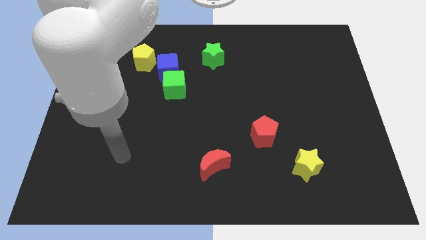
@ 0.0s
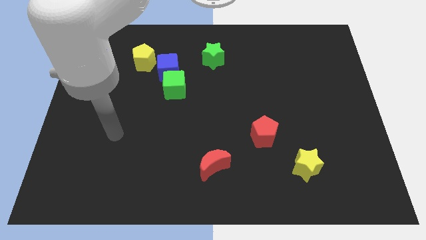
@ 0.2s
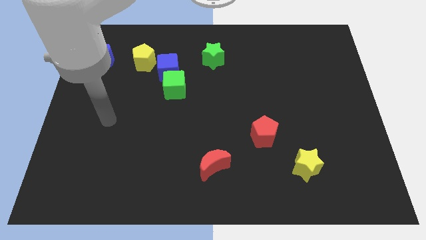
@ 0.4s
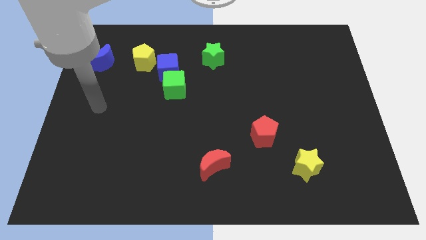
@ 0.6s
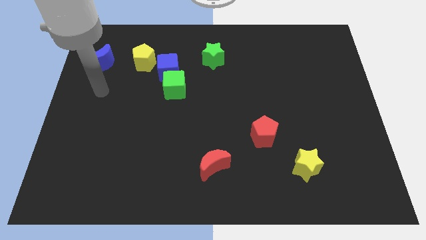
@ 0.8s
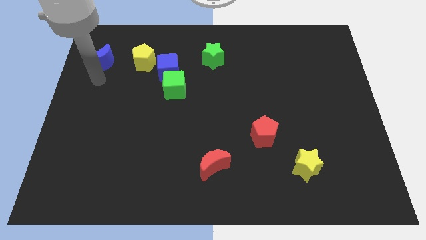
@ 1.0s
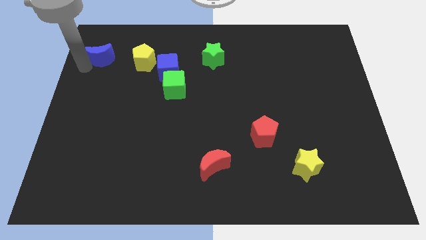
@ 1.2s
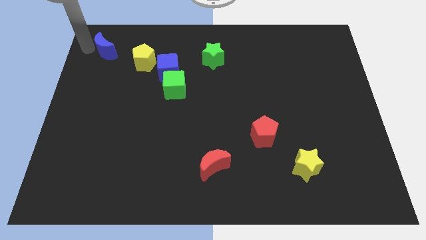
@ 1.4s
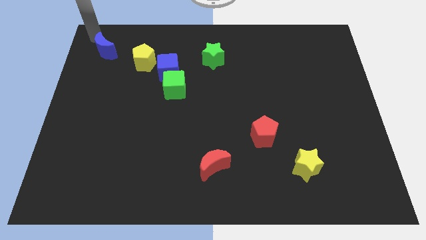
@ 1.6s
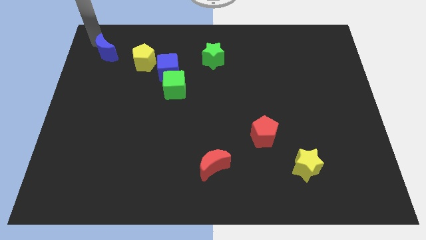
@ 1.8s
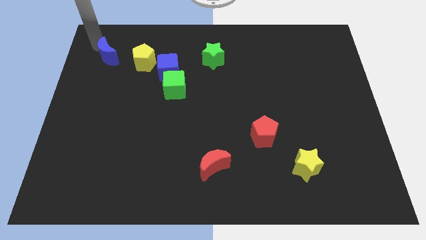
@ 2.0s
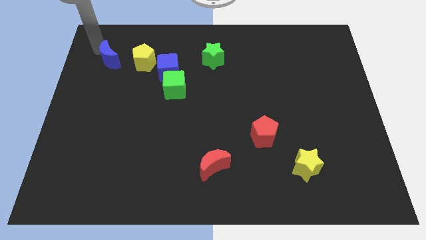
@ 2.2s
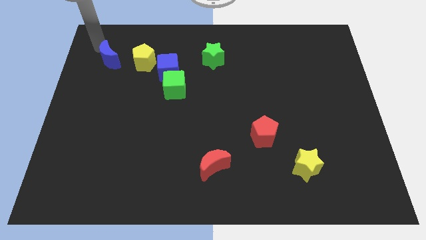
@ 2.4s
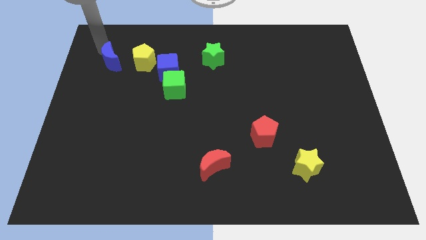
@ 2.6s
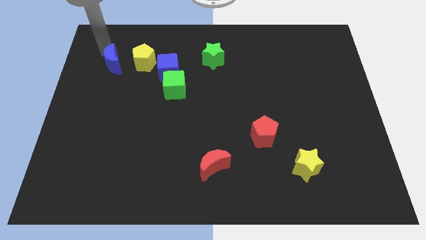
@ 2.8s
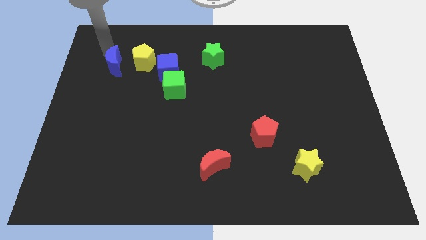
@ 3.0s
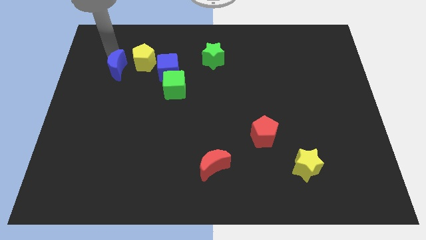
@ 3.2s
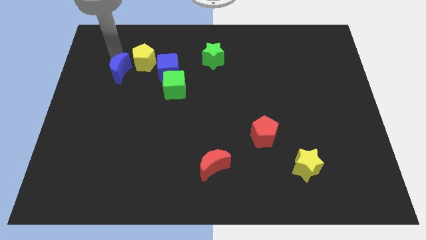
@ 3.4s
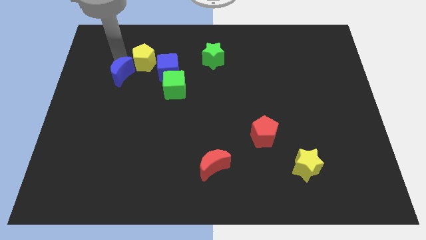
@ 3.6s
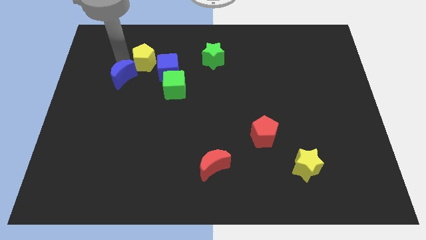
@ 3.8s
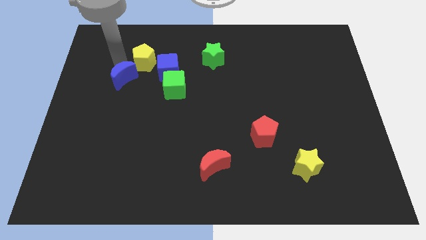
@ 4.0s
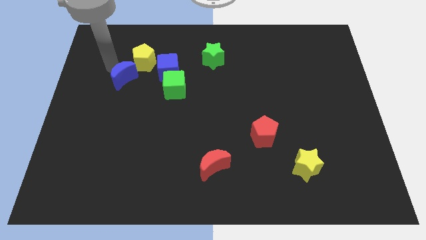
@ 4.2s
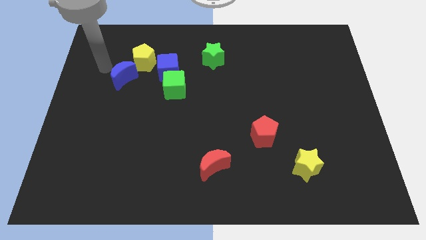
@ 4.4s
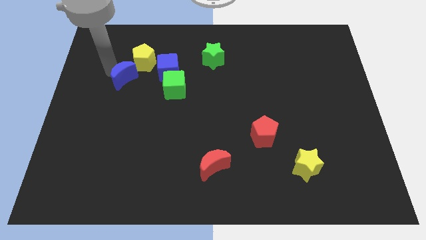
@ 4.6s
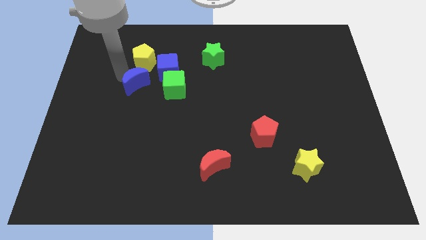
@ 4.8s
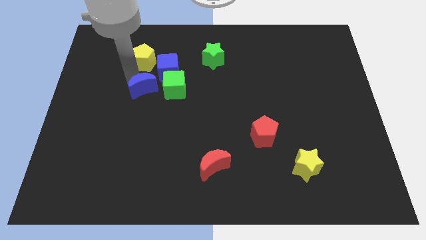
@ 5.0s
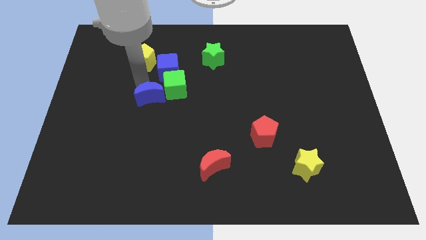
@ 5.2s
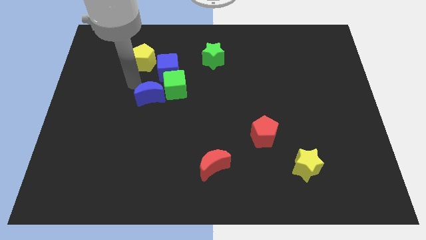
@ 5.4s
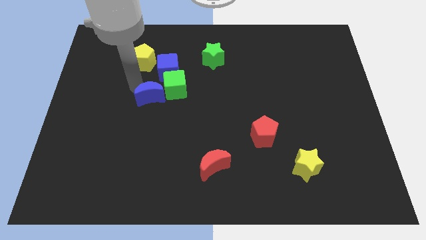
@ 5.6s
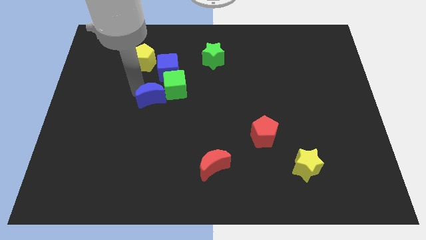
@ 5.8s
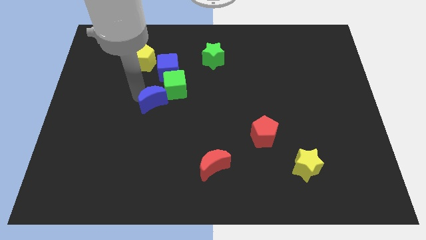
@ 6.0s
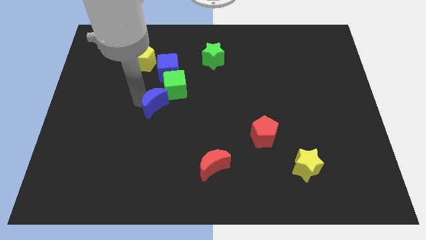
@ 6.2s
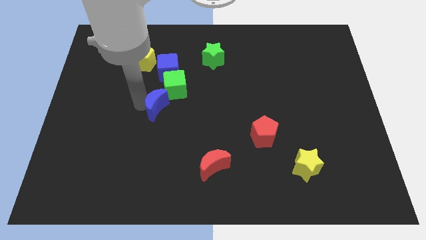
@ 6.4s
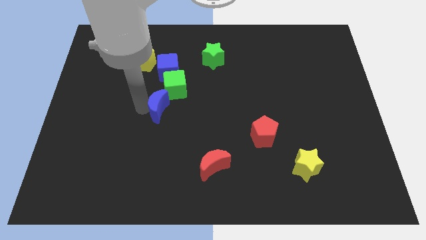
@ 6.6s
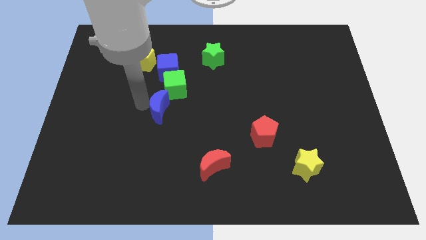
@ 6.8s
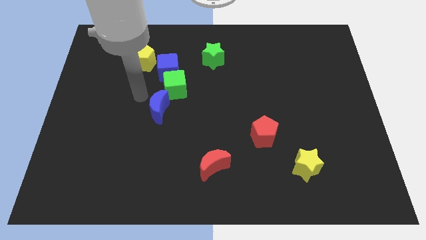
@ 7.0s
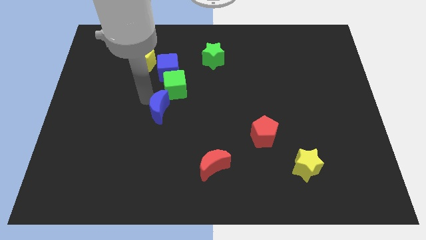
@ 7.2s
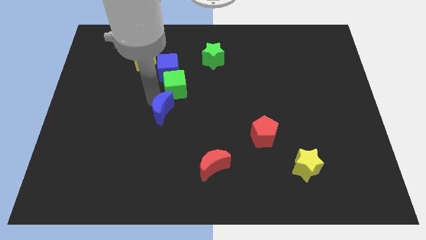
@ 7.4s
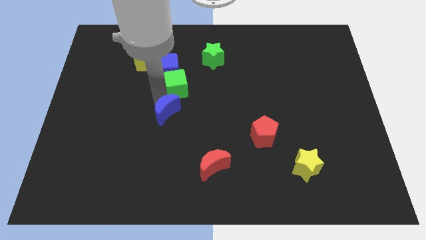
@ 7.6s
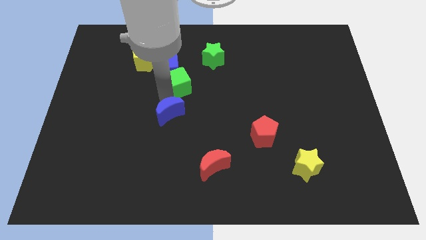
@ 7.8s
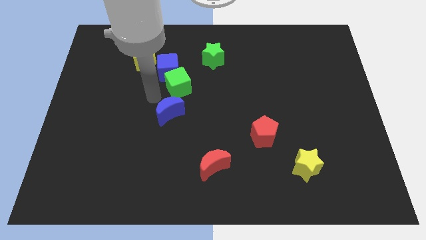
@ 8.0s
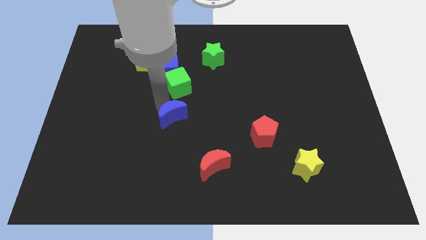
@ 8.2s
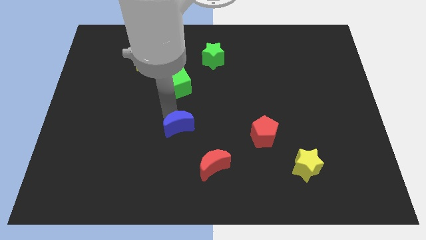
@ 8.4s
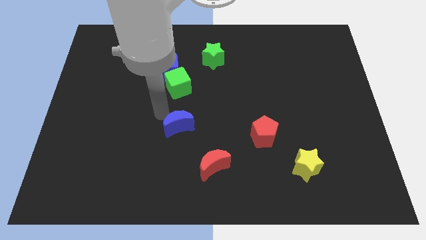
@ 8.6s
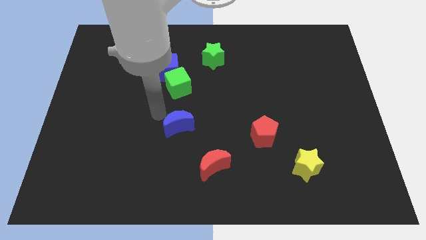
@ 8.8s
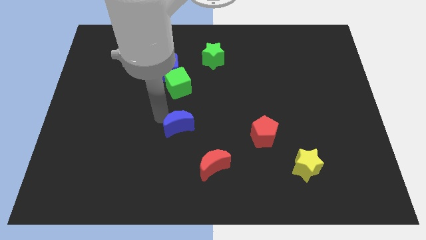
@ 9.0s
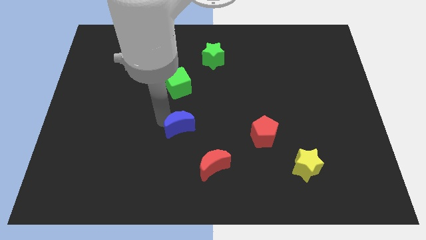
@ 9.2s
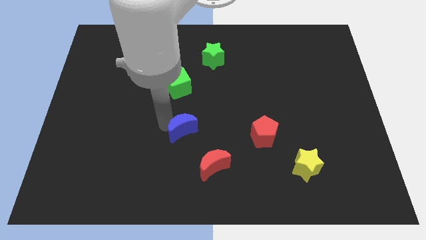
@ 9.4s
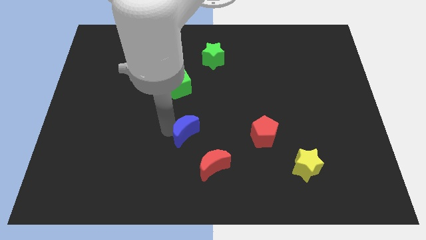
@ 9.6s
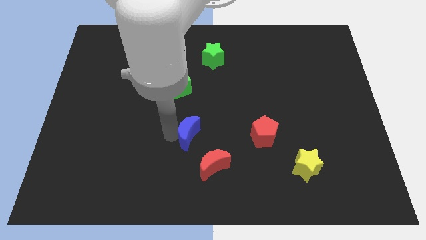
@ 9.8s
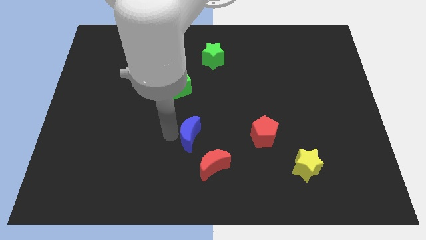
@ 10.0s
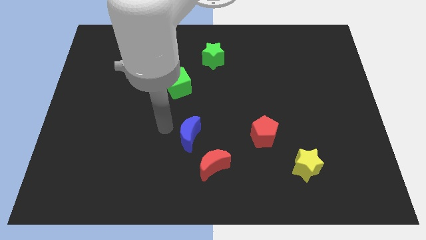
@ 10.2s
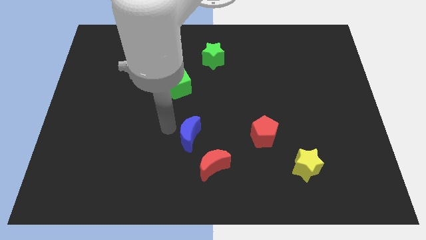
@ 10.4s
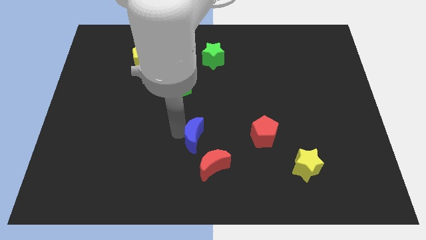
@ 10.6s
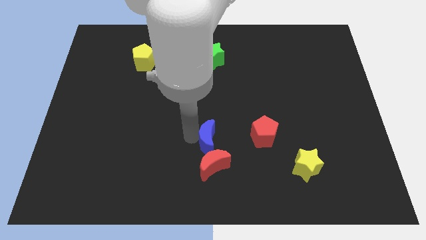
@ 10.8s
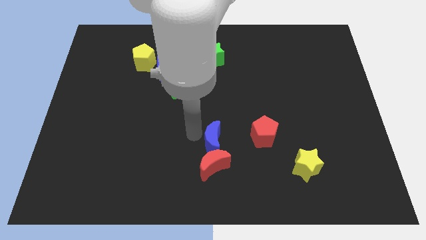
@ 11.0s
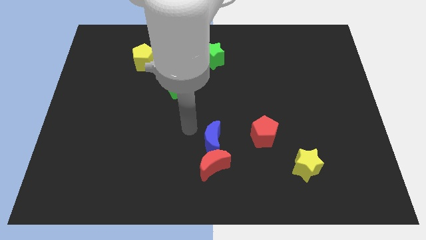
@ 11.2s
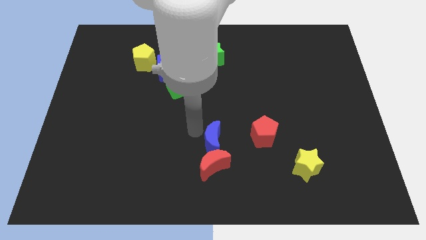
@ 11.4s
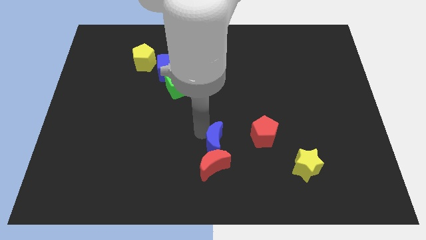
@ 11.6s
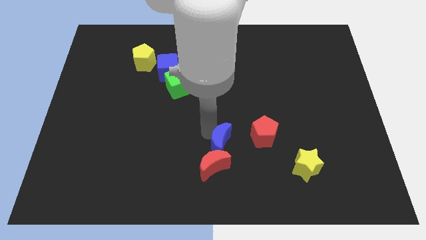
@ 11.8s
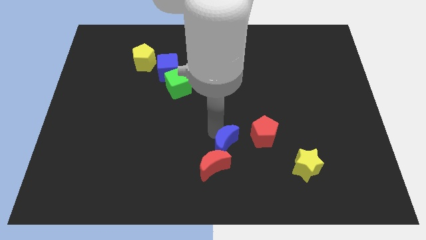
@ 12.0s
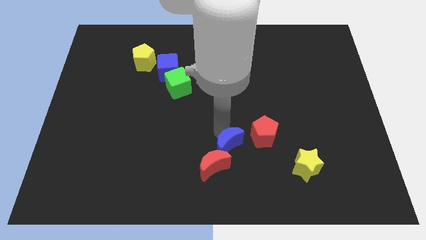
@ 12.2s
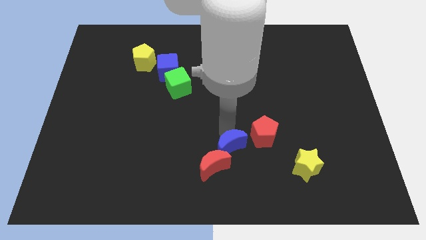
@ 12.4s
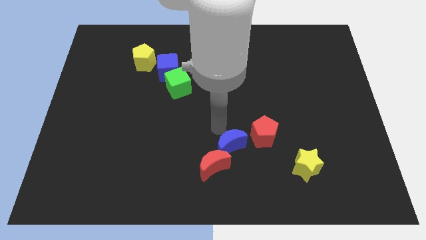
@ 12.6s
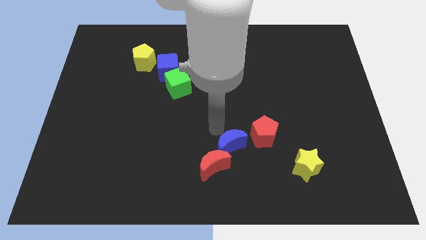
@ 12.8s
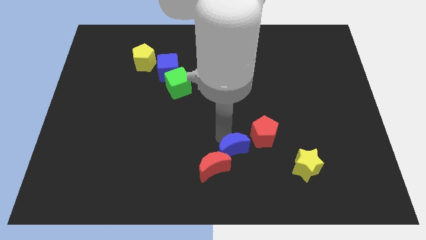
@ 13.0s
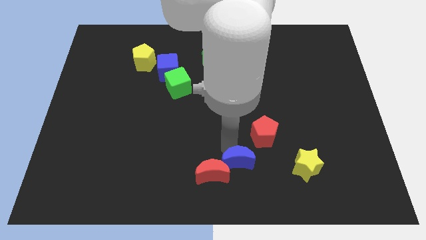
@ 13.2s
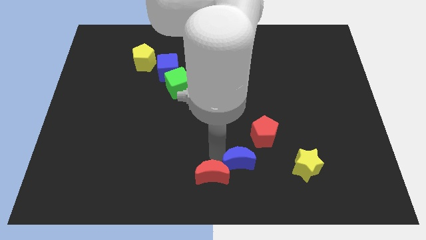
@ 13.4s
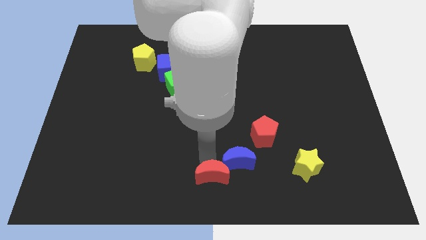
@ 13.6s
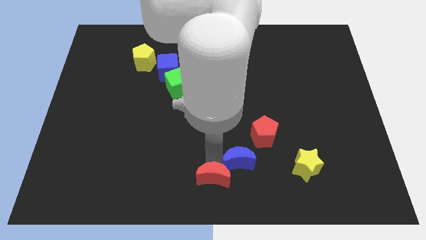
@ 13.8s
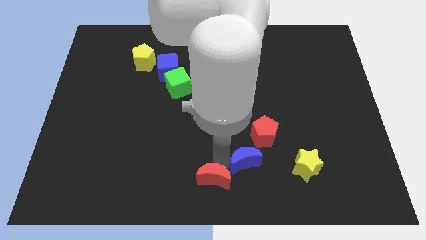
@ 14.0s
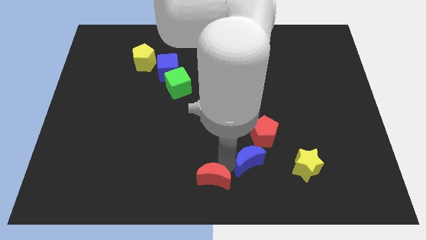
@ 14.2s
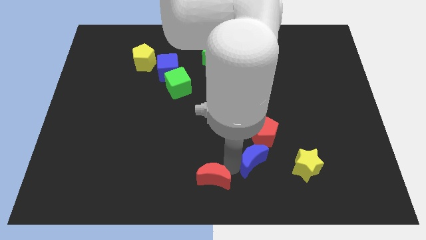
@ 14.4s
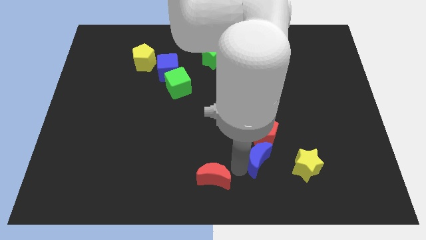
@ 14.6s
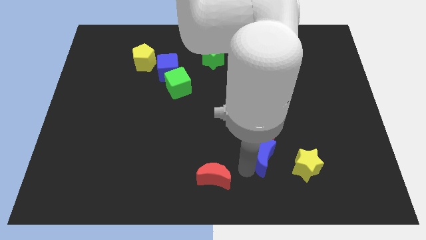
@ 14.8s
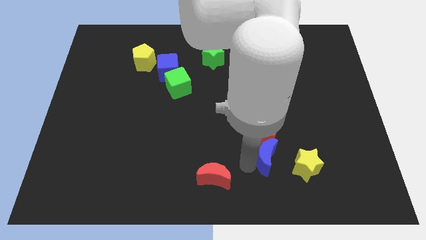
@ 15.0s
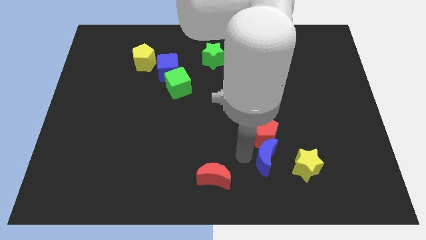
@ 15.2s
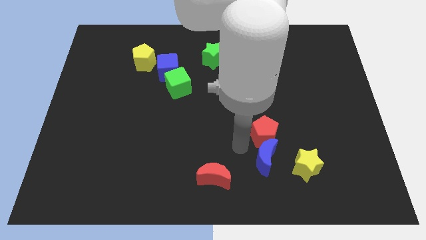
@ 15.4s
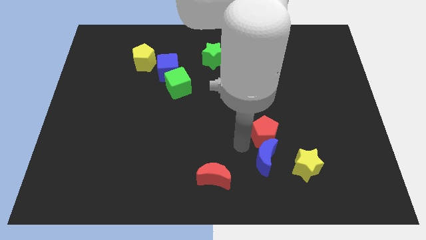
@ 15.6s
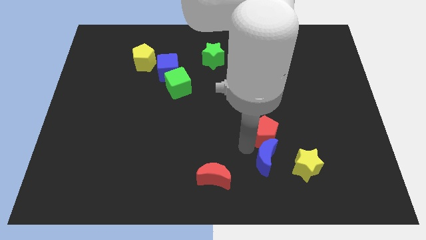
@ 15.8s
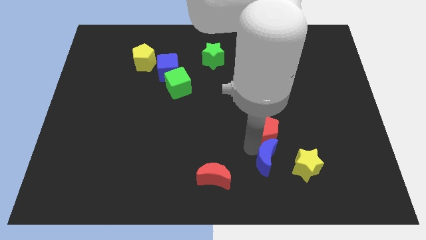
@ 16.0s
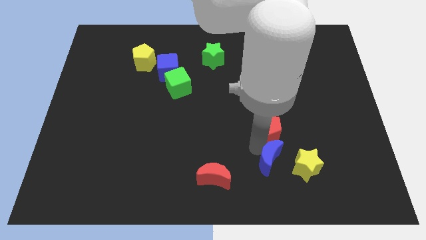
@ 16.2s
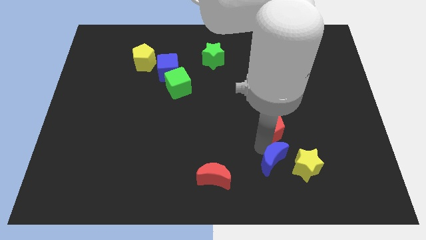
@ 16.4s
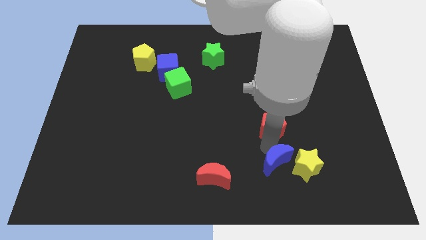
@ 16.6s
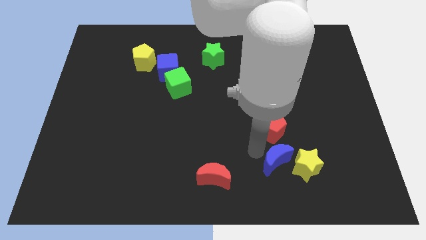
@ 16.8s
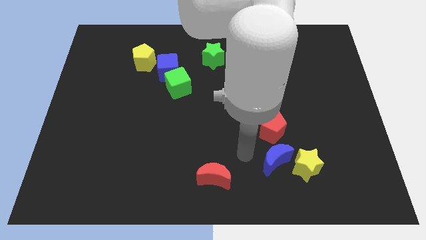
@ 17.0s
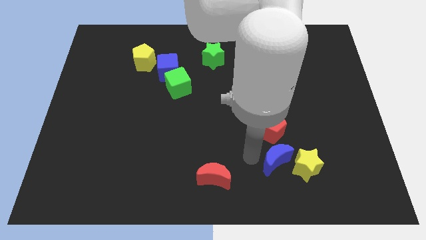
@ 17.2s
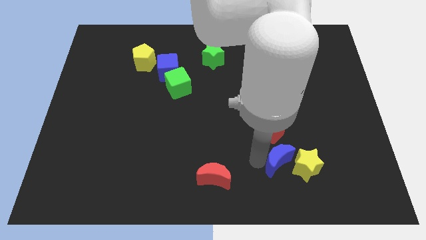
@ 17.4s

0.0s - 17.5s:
push the blue moon towards the yellow star
